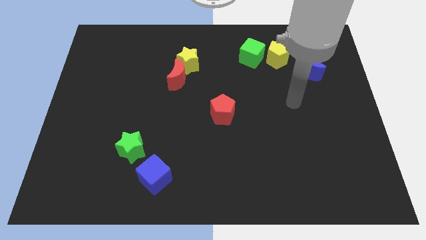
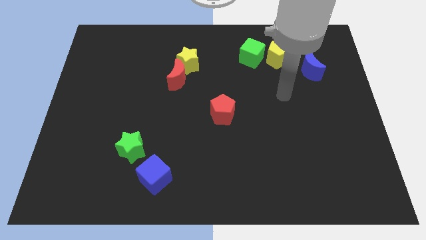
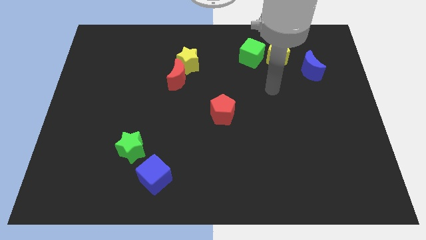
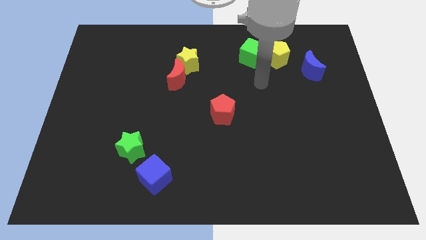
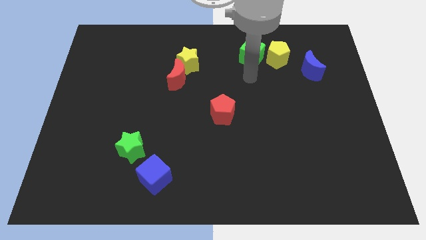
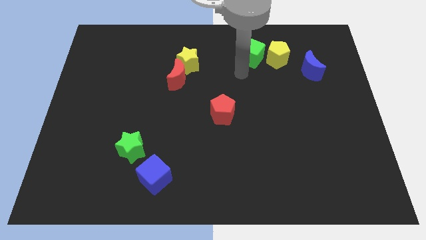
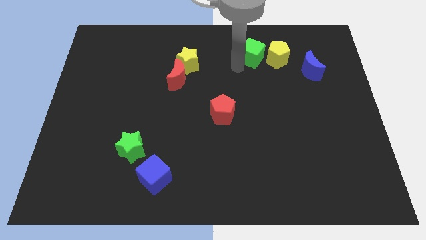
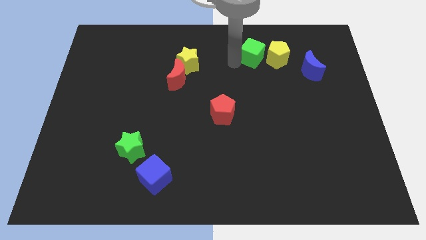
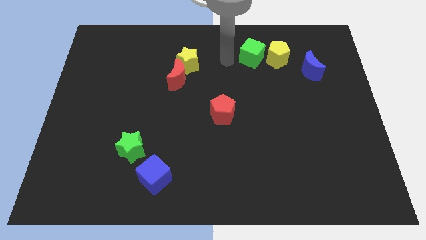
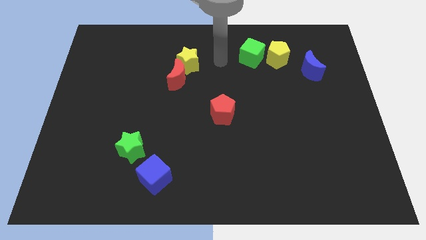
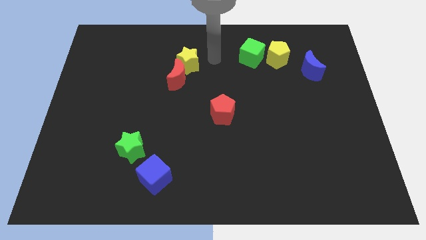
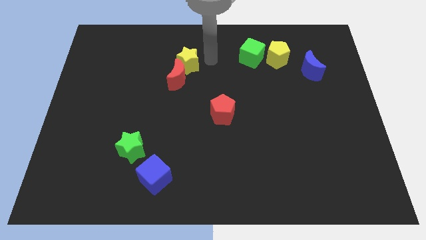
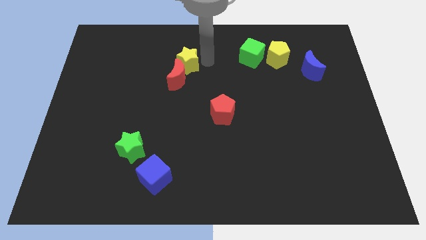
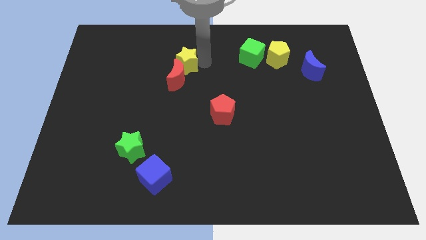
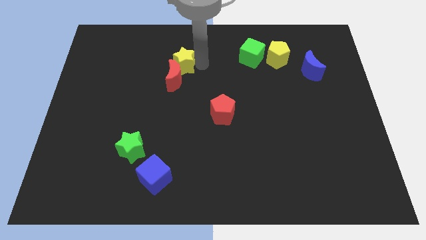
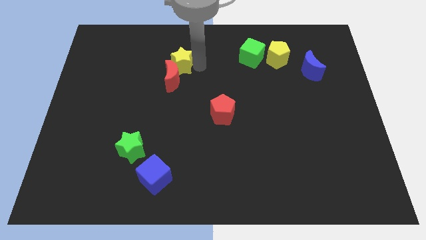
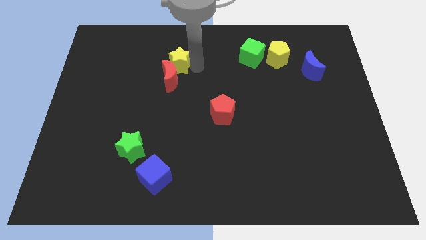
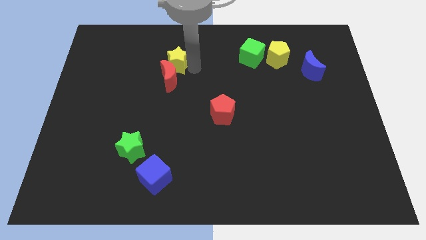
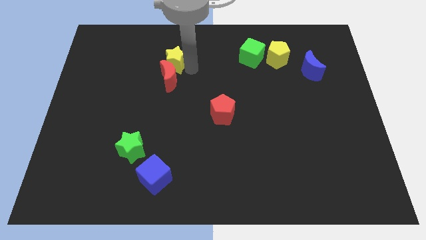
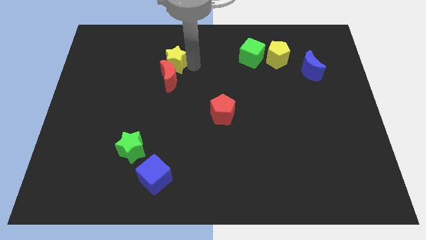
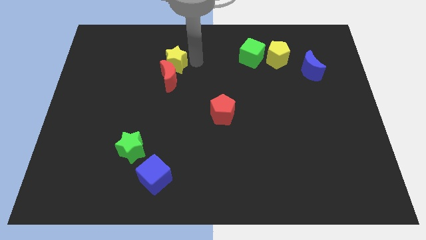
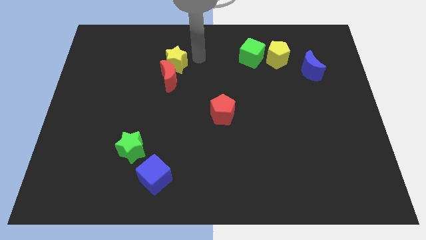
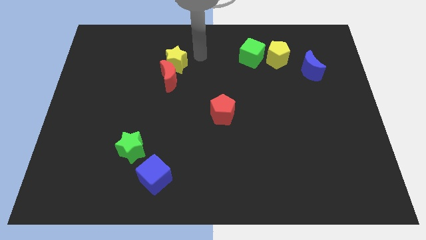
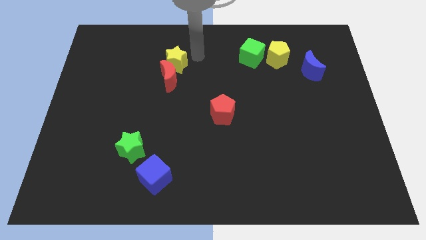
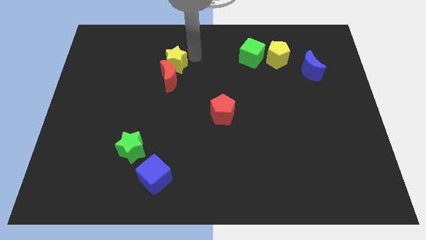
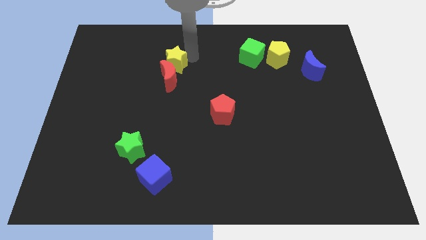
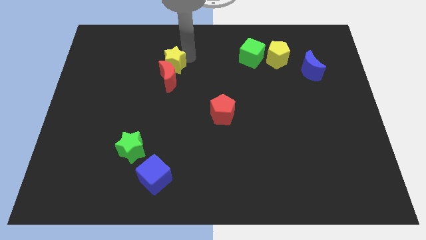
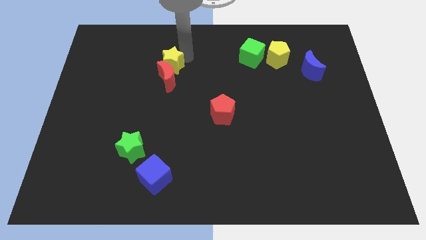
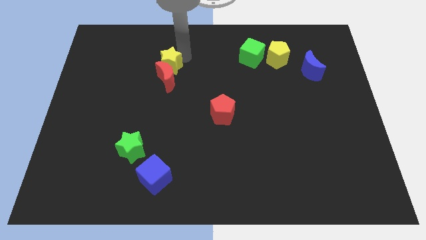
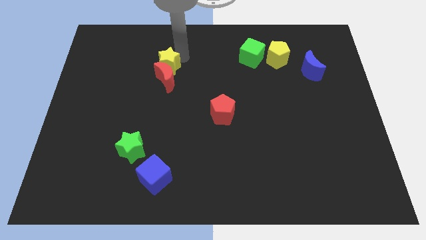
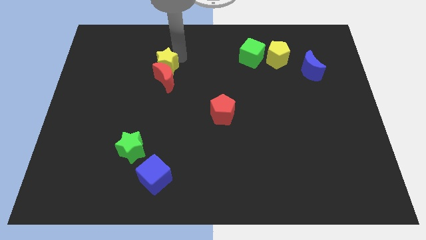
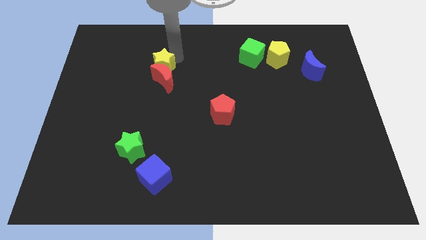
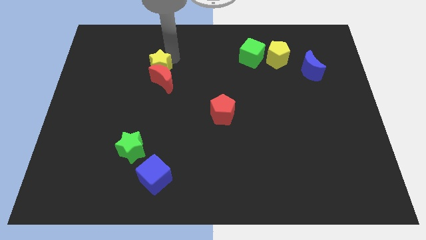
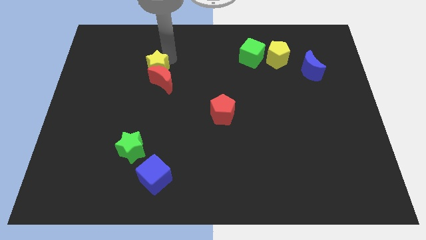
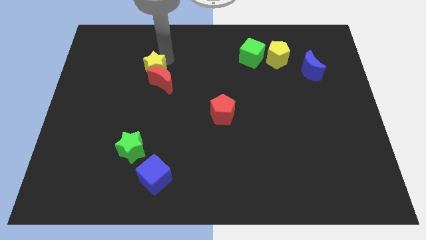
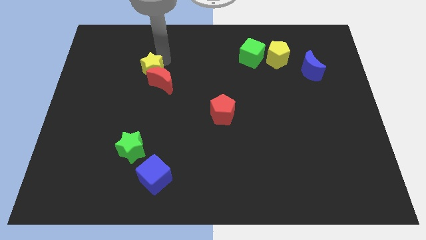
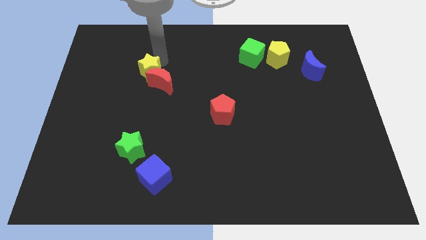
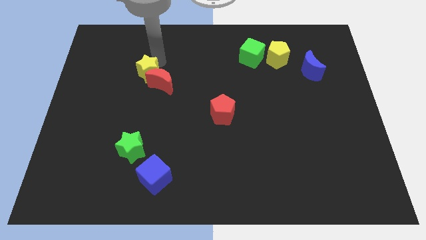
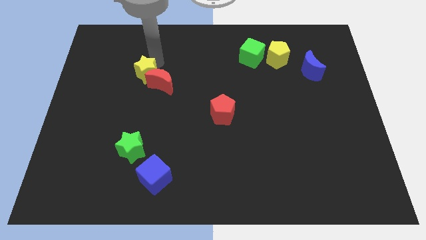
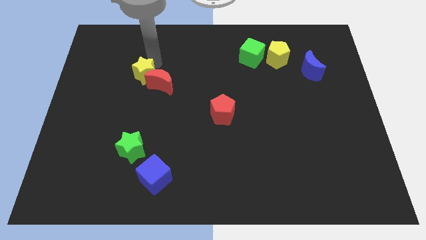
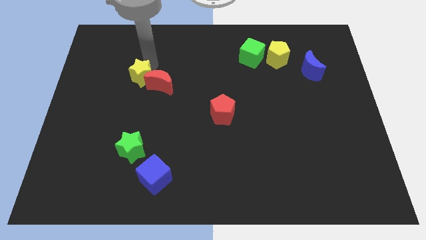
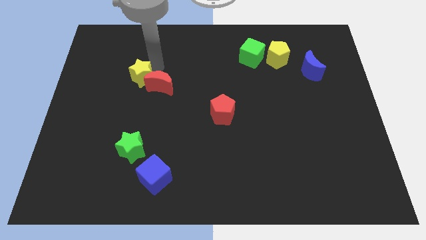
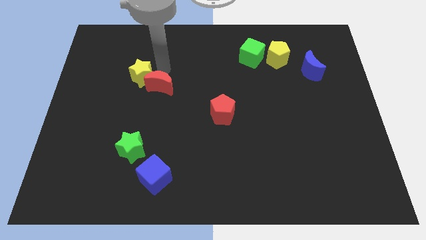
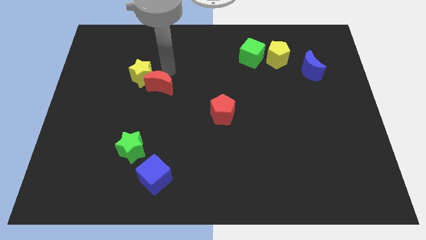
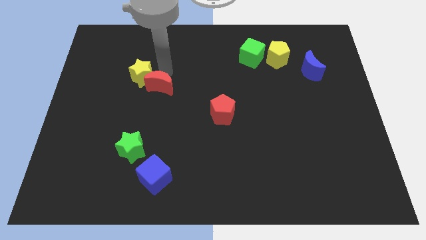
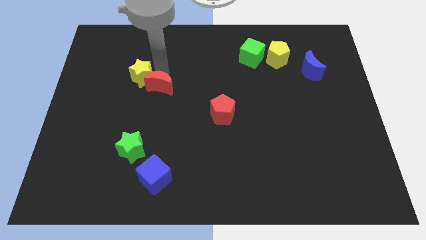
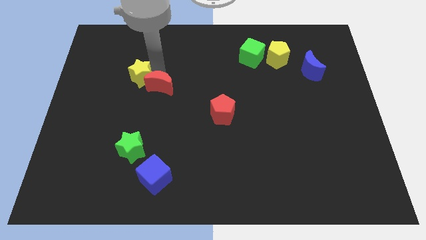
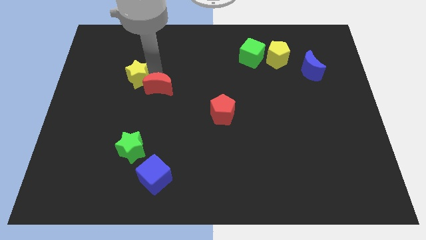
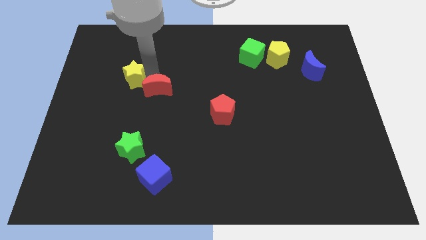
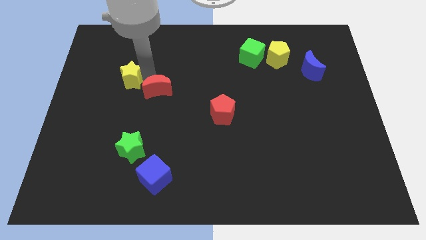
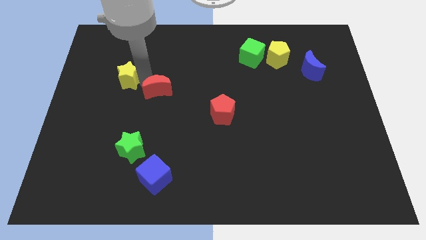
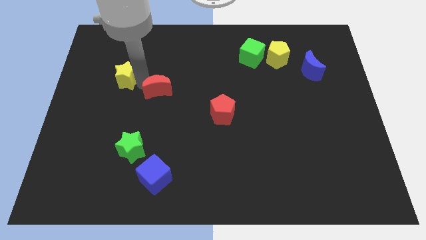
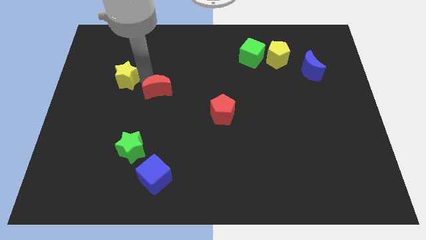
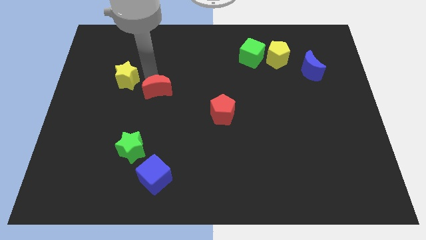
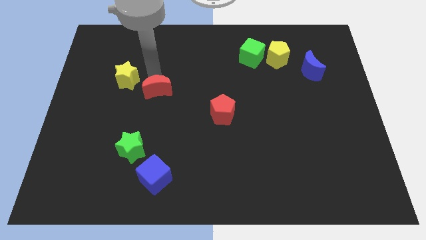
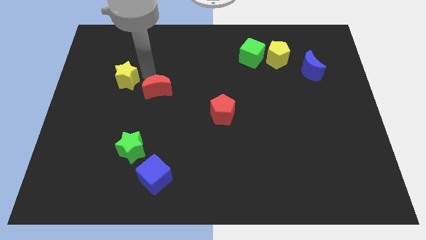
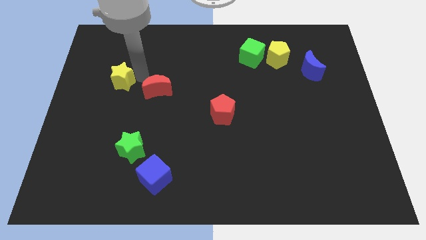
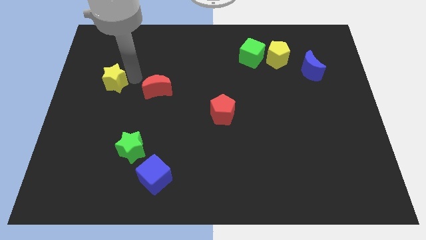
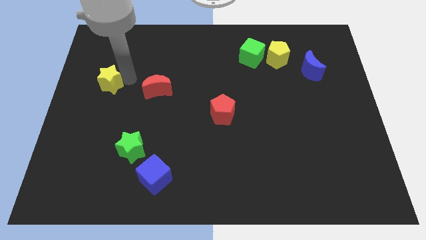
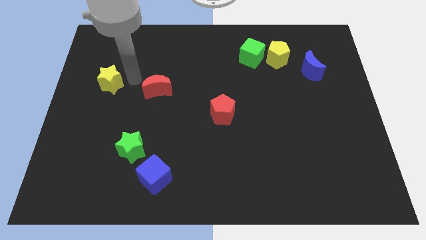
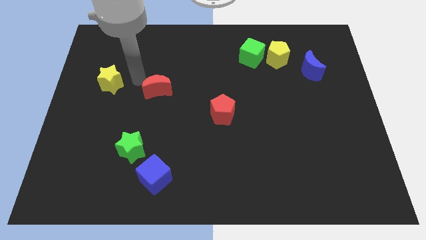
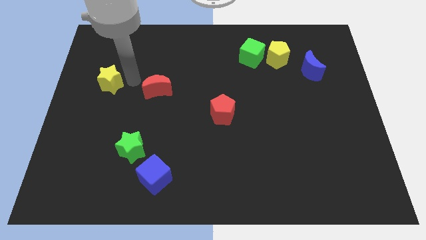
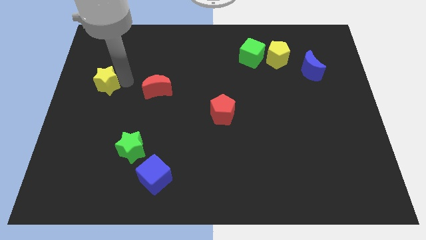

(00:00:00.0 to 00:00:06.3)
push the yellow star to the left side

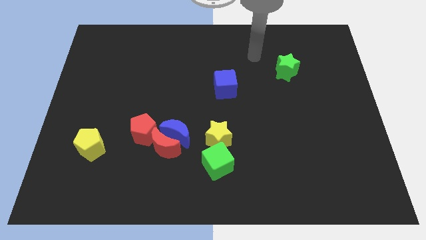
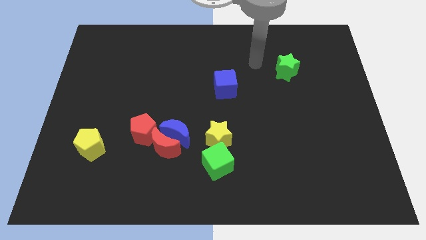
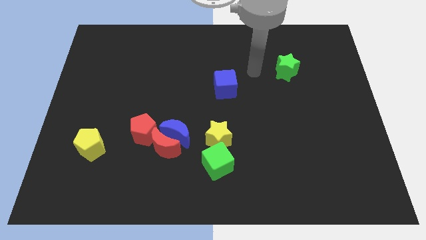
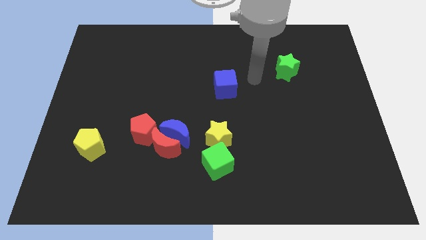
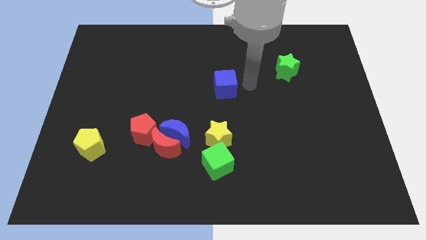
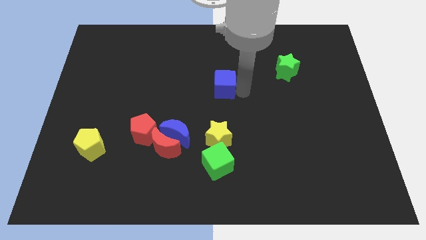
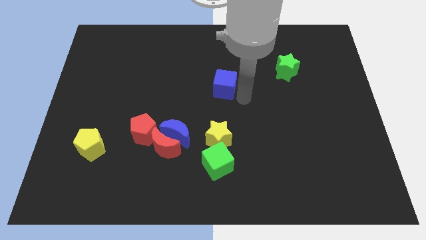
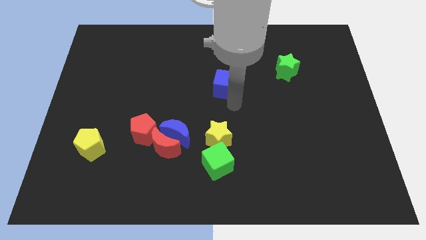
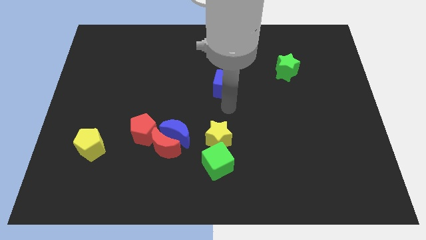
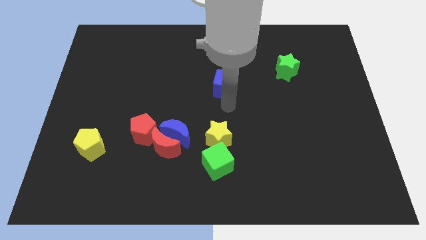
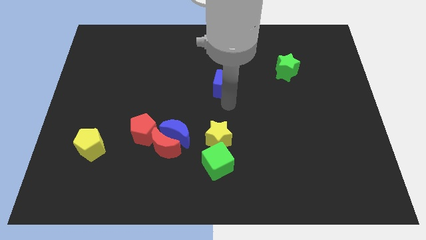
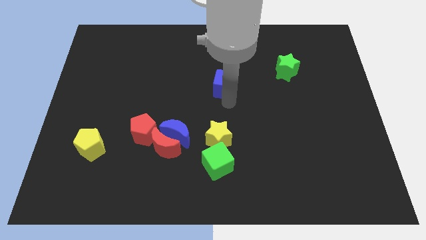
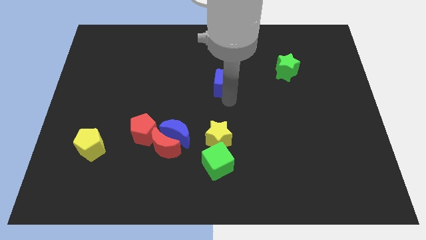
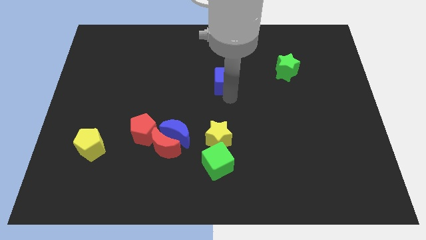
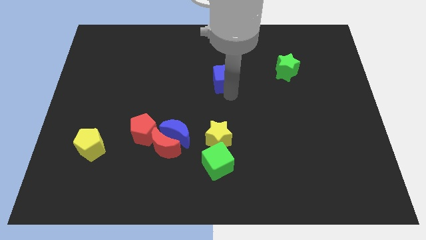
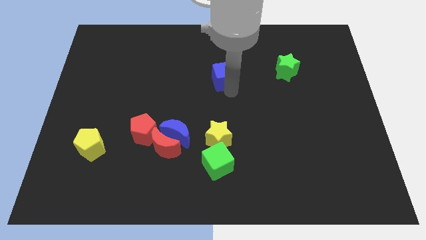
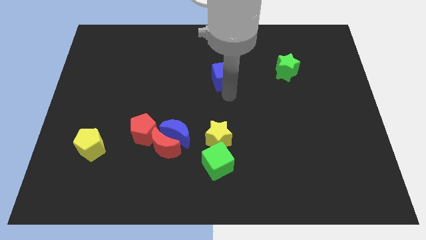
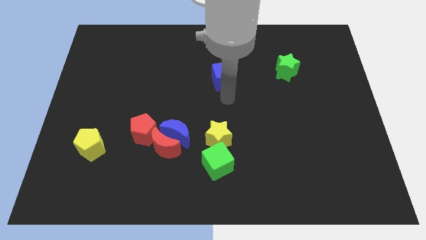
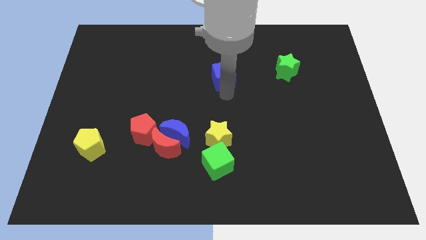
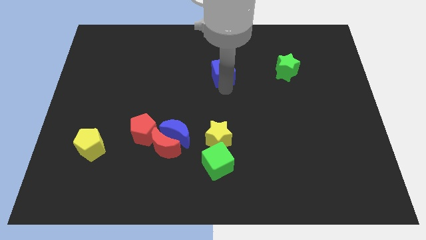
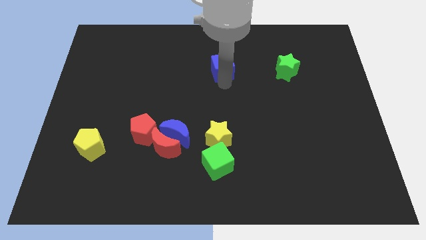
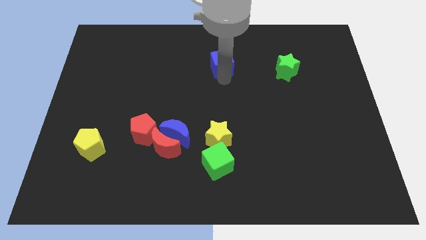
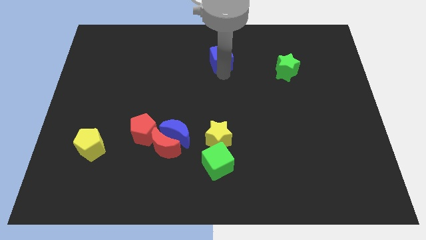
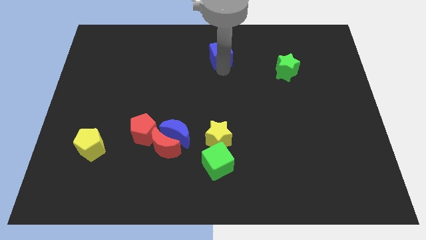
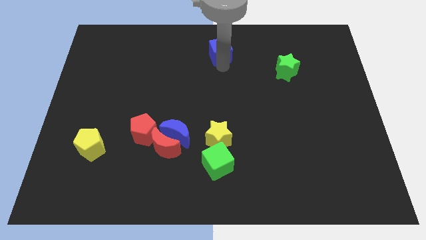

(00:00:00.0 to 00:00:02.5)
slide the blue cube to the top side
